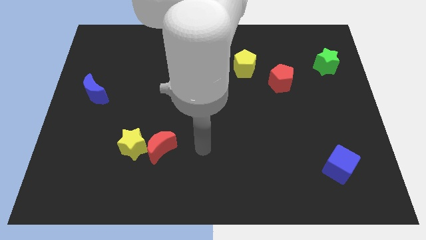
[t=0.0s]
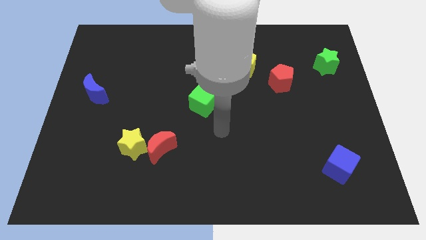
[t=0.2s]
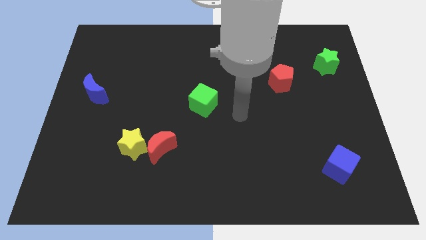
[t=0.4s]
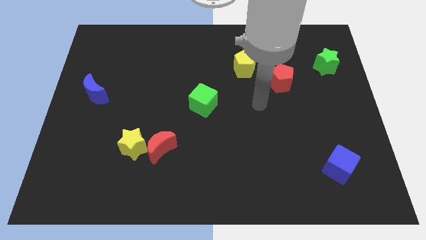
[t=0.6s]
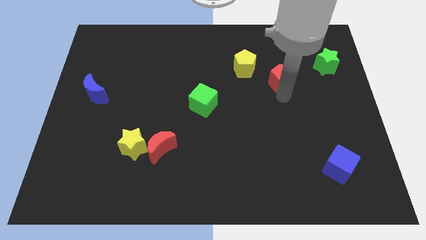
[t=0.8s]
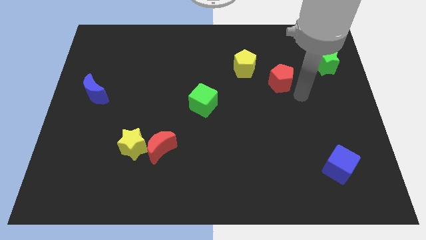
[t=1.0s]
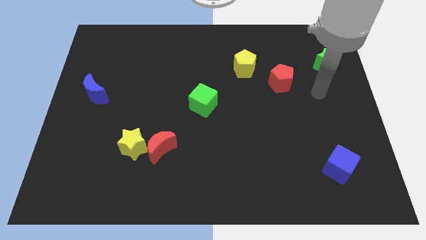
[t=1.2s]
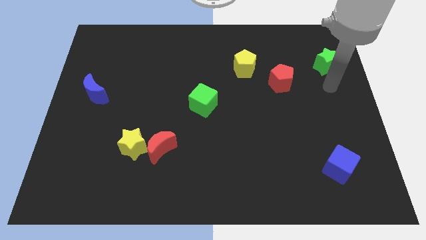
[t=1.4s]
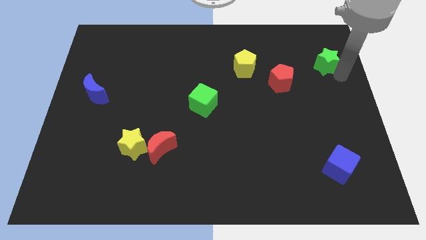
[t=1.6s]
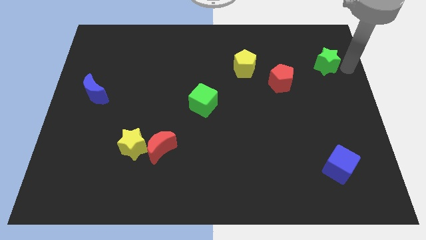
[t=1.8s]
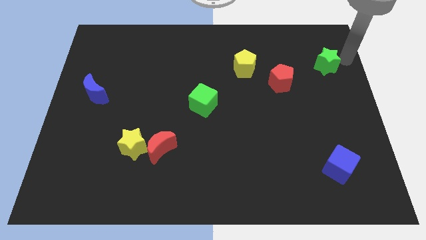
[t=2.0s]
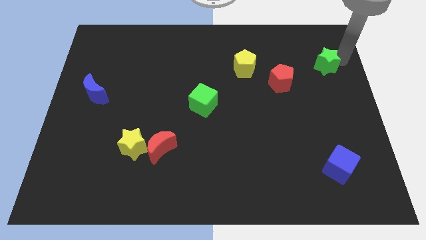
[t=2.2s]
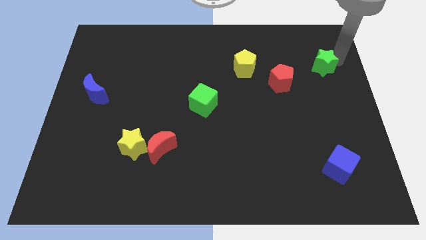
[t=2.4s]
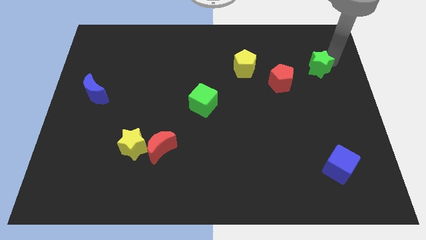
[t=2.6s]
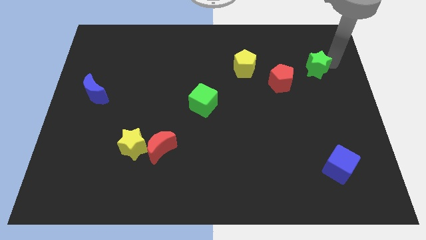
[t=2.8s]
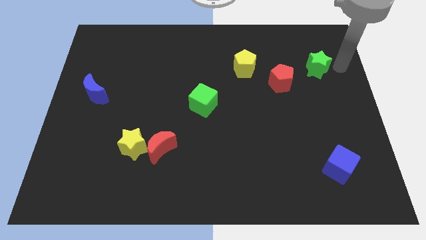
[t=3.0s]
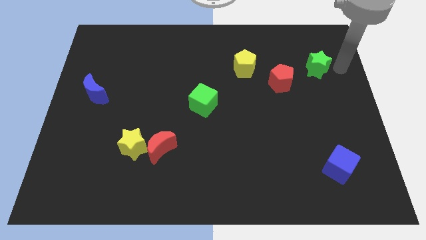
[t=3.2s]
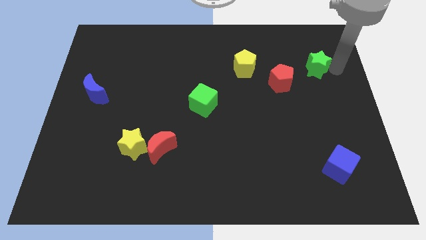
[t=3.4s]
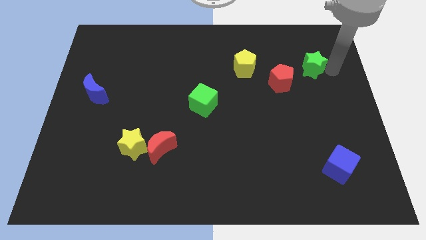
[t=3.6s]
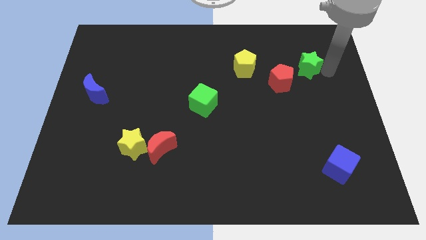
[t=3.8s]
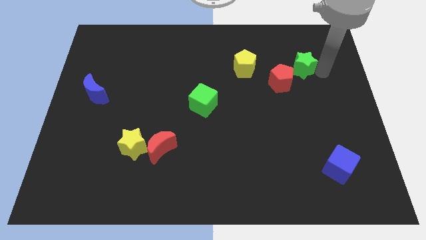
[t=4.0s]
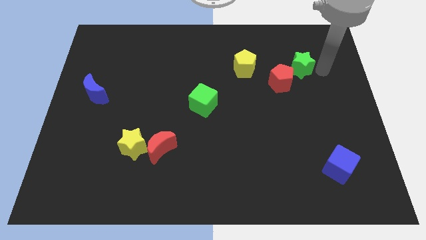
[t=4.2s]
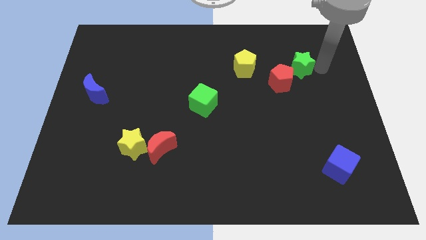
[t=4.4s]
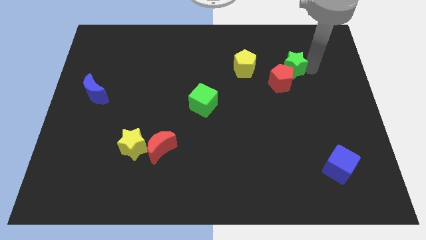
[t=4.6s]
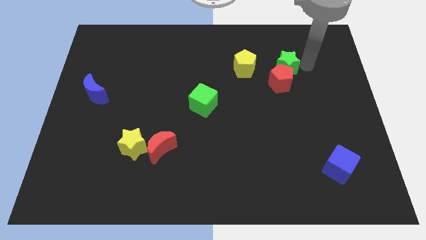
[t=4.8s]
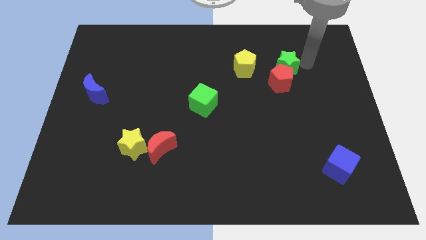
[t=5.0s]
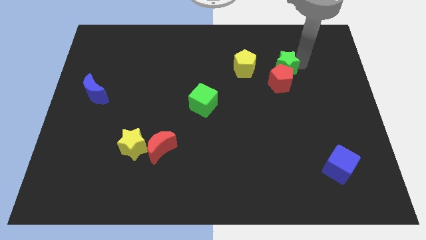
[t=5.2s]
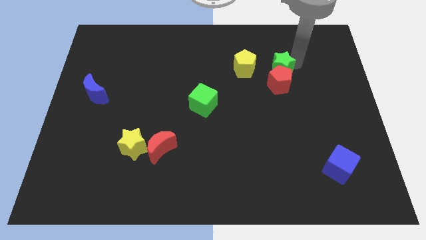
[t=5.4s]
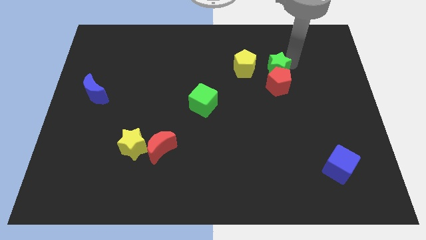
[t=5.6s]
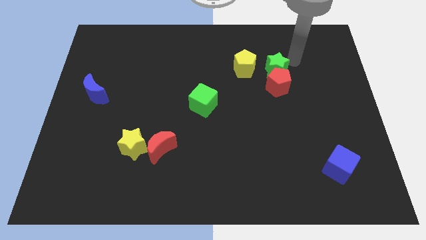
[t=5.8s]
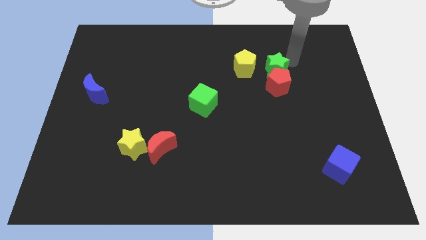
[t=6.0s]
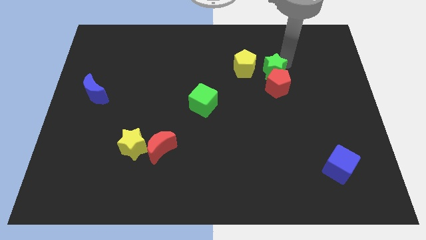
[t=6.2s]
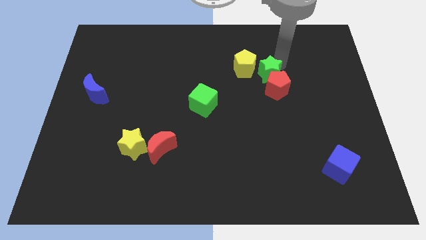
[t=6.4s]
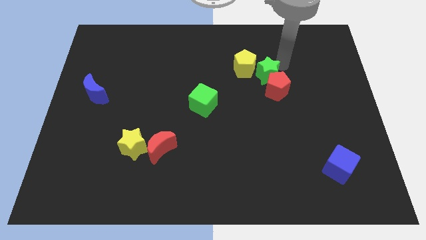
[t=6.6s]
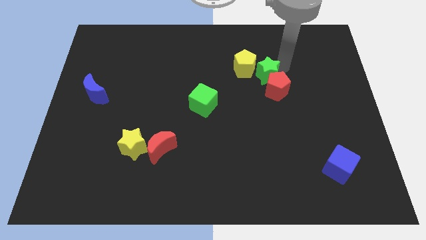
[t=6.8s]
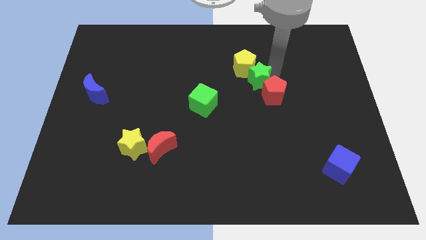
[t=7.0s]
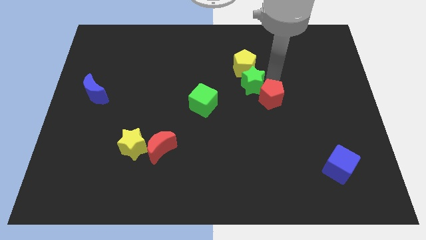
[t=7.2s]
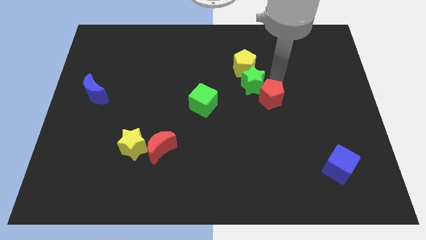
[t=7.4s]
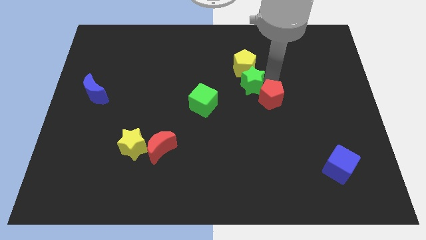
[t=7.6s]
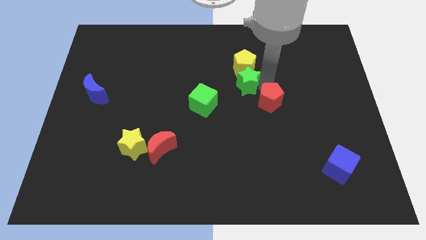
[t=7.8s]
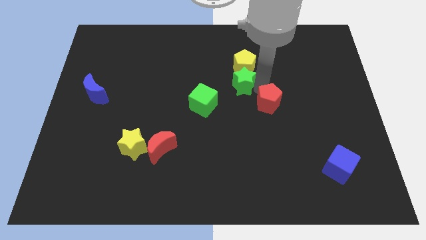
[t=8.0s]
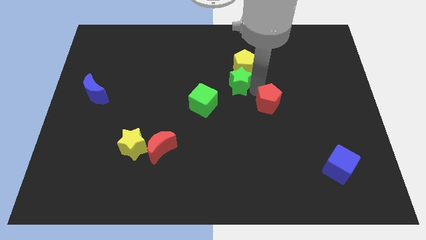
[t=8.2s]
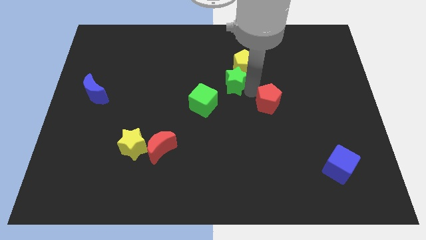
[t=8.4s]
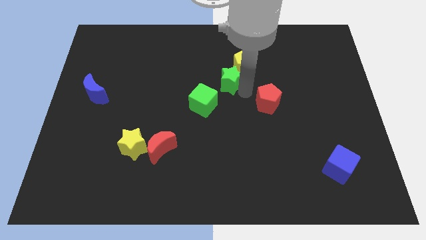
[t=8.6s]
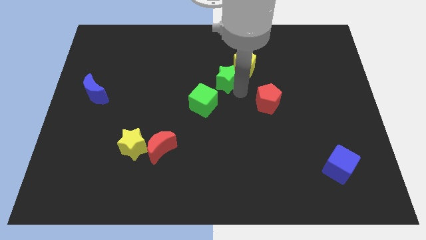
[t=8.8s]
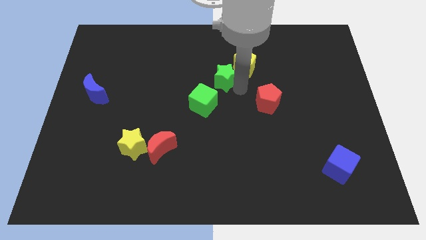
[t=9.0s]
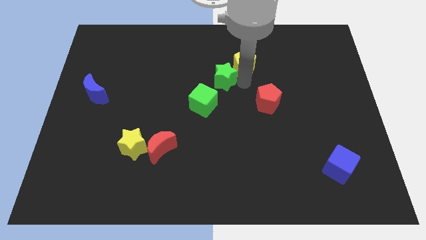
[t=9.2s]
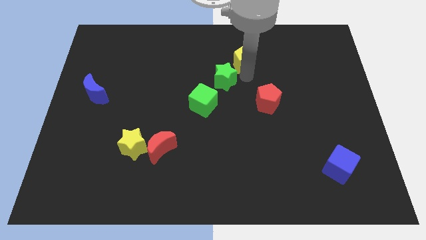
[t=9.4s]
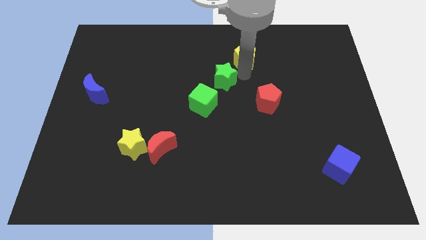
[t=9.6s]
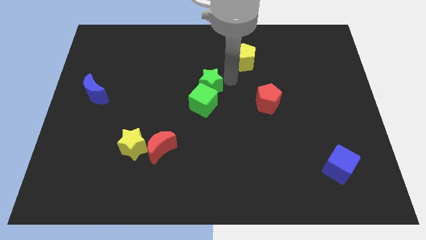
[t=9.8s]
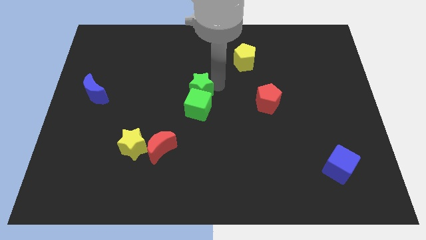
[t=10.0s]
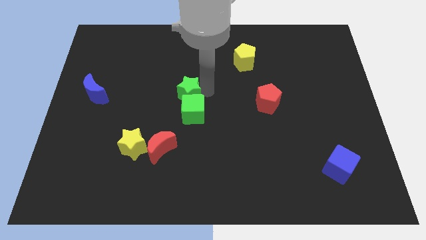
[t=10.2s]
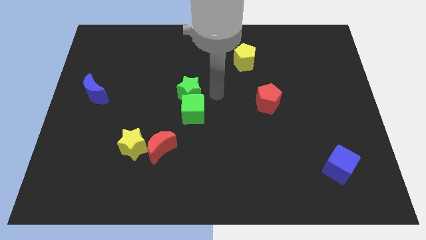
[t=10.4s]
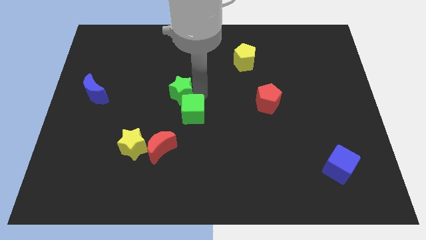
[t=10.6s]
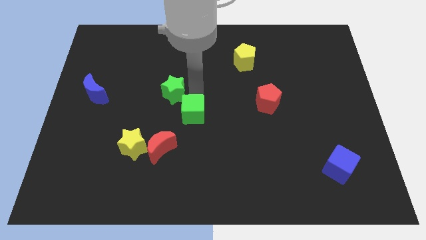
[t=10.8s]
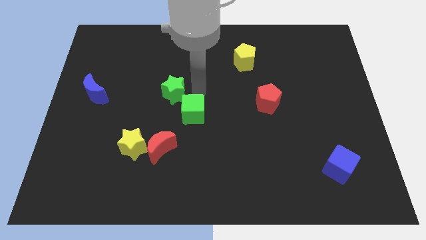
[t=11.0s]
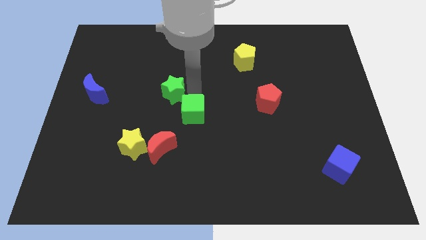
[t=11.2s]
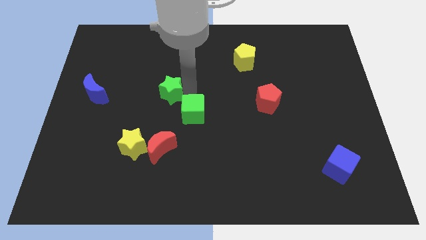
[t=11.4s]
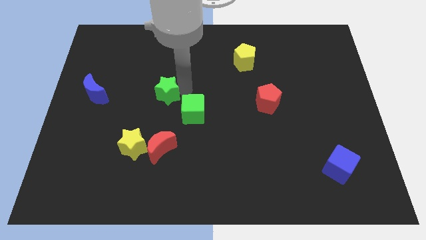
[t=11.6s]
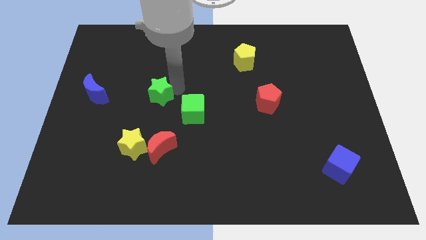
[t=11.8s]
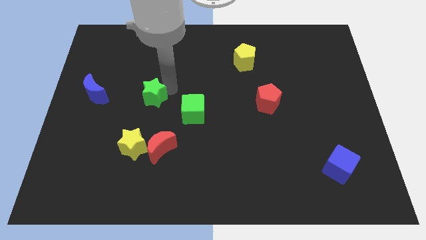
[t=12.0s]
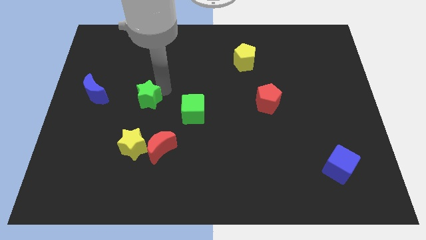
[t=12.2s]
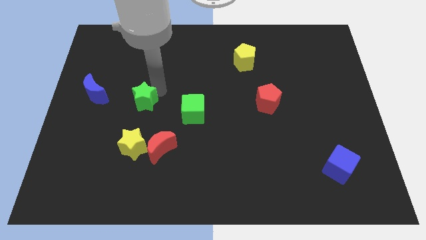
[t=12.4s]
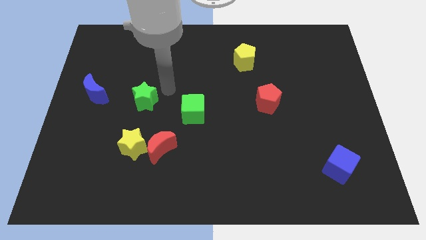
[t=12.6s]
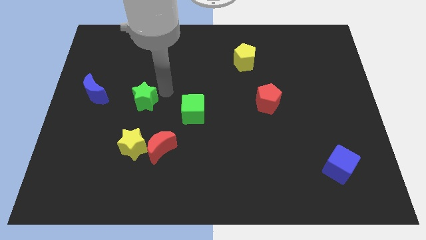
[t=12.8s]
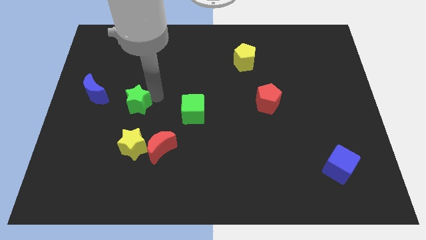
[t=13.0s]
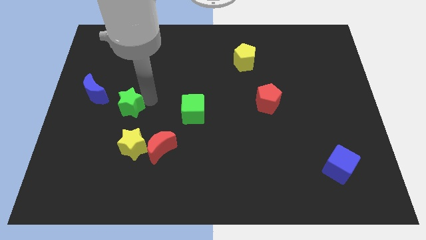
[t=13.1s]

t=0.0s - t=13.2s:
move the green star diagonally down and to the right of the blue moon

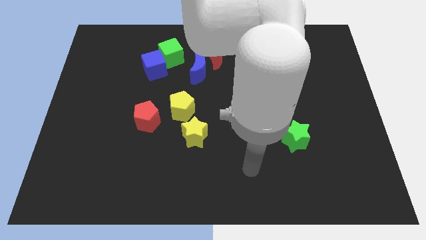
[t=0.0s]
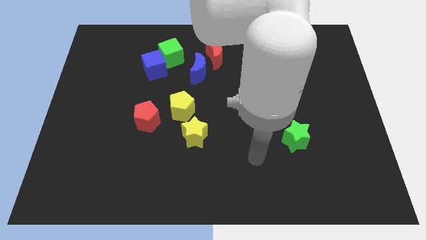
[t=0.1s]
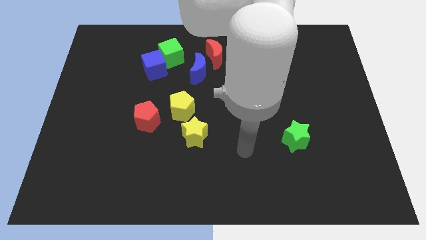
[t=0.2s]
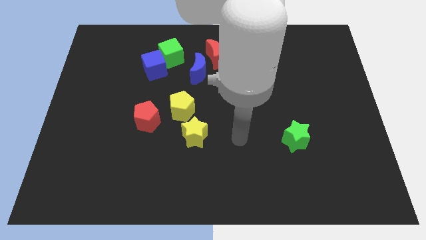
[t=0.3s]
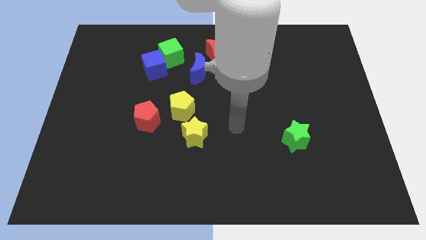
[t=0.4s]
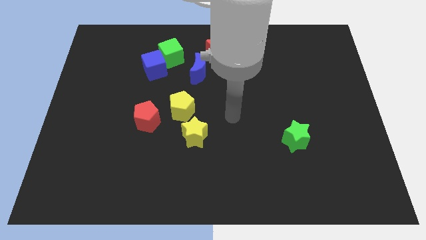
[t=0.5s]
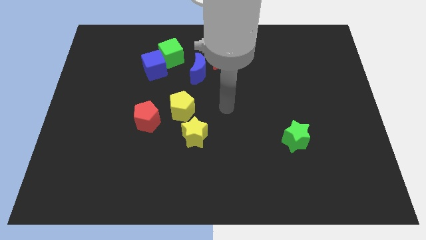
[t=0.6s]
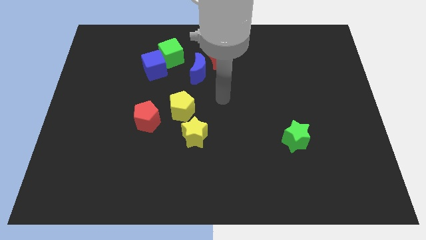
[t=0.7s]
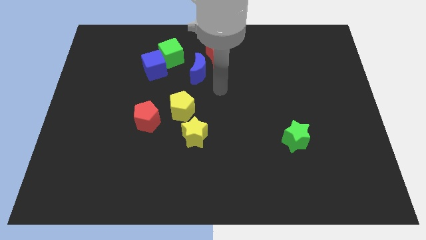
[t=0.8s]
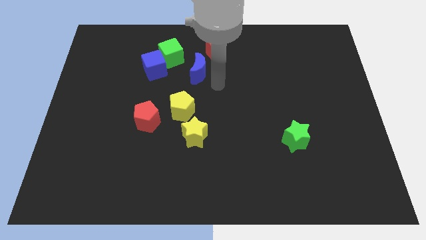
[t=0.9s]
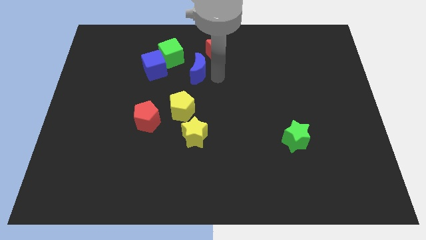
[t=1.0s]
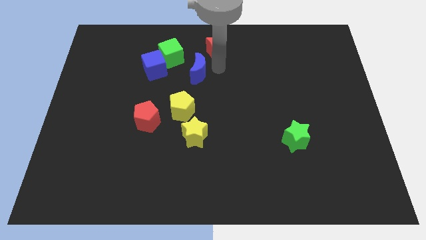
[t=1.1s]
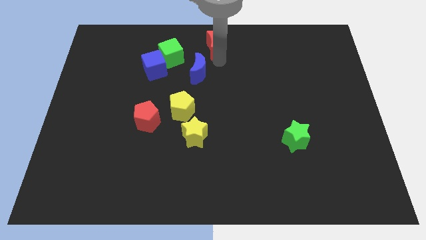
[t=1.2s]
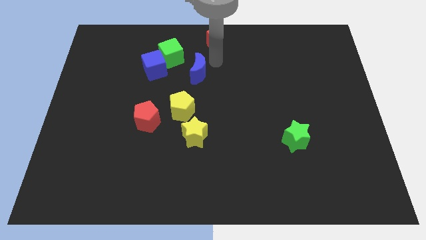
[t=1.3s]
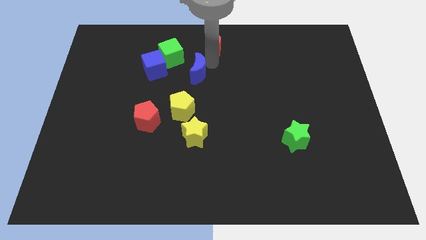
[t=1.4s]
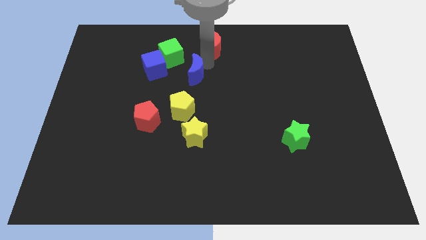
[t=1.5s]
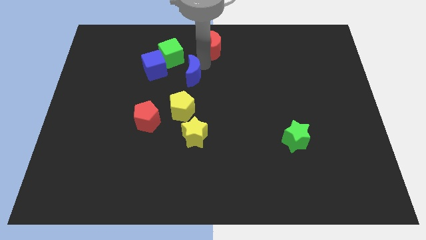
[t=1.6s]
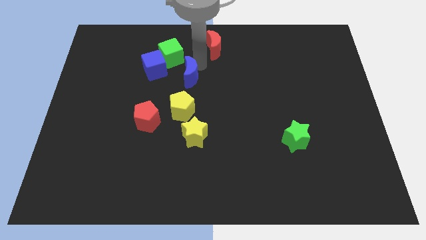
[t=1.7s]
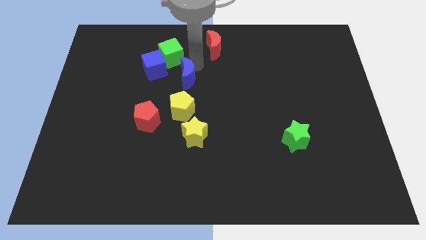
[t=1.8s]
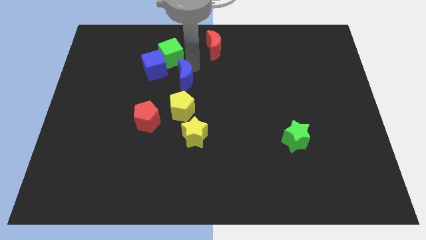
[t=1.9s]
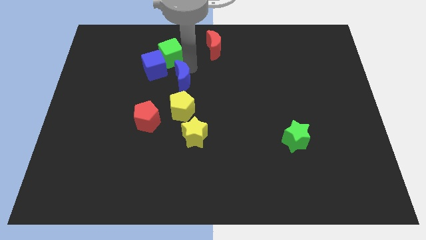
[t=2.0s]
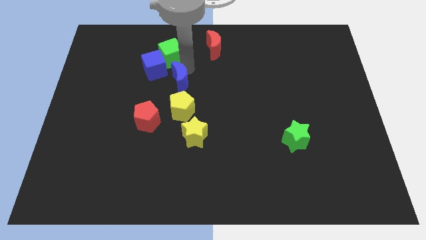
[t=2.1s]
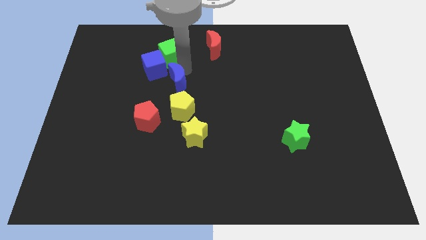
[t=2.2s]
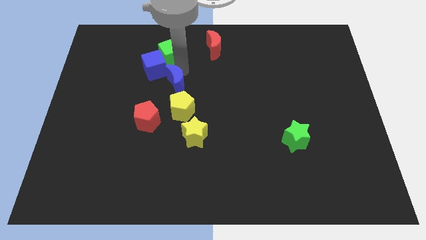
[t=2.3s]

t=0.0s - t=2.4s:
slide the blue moon to the top left side of the yellow pentagon
